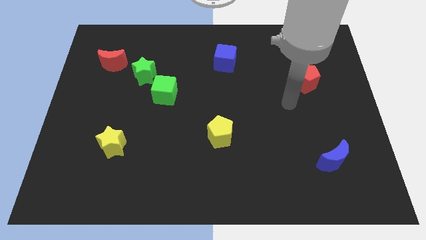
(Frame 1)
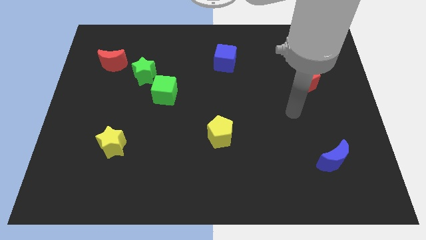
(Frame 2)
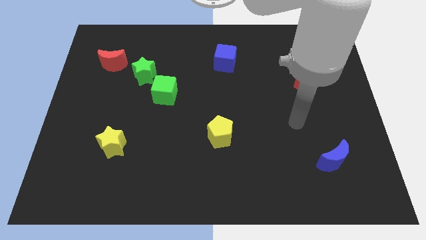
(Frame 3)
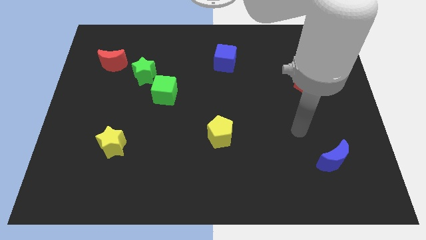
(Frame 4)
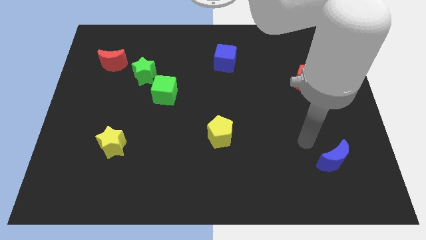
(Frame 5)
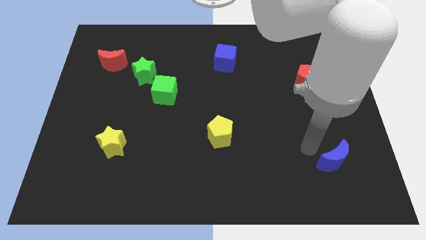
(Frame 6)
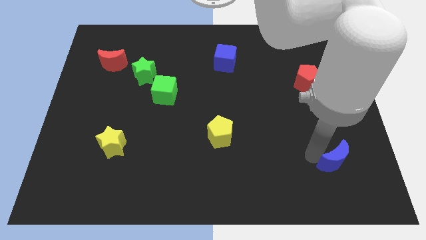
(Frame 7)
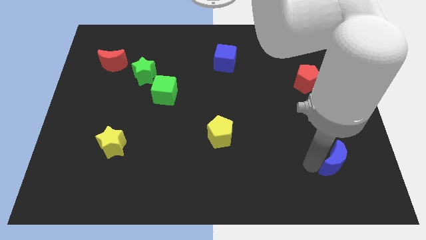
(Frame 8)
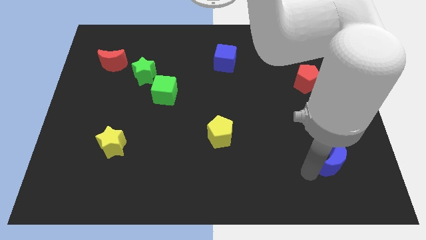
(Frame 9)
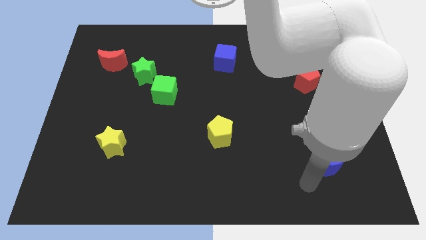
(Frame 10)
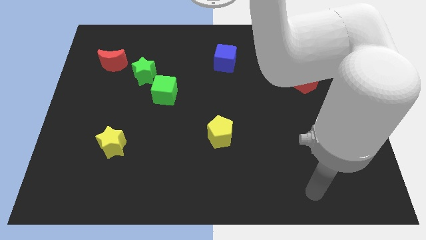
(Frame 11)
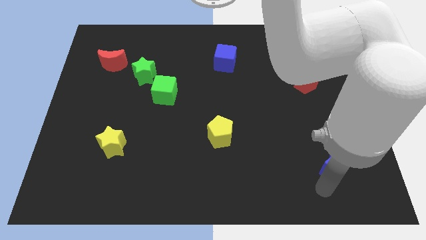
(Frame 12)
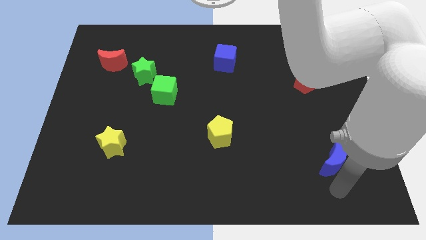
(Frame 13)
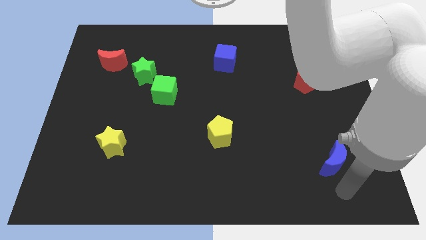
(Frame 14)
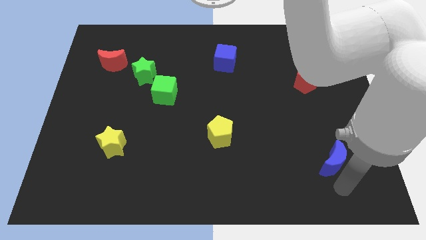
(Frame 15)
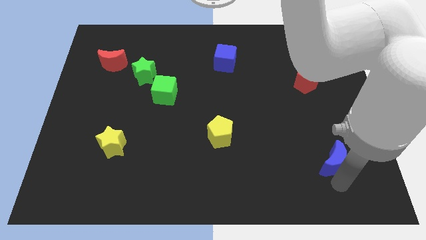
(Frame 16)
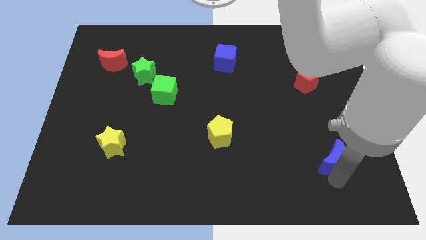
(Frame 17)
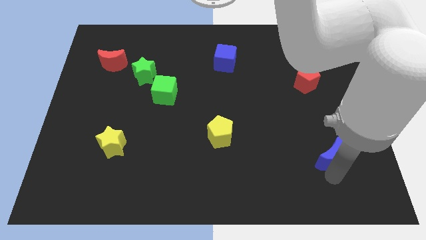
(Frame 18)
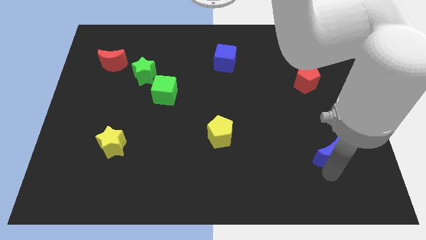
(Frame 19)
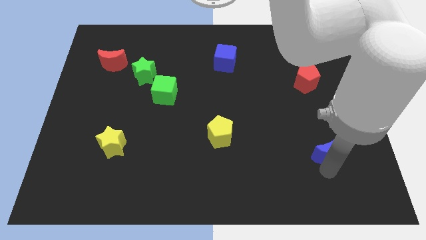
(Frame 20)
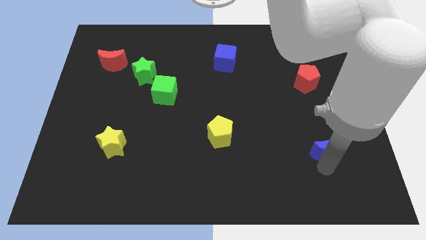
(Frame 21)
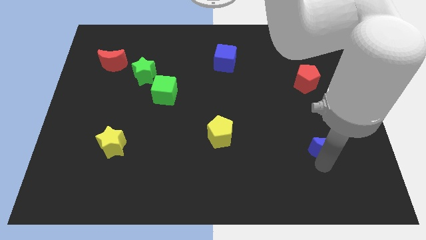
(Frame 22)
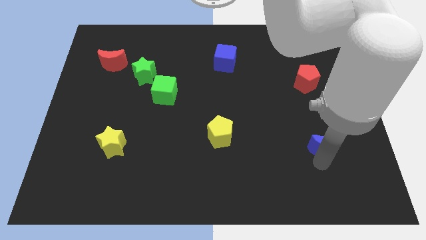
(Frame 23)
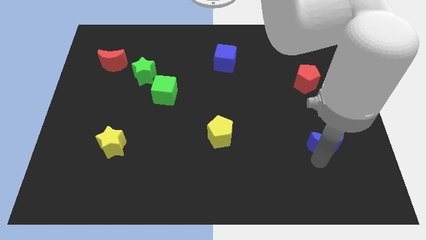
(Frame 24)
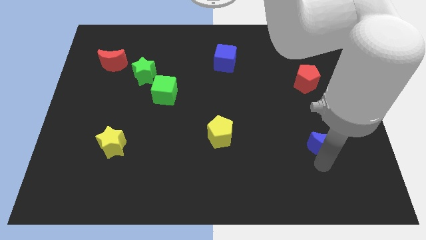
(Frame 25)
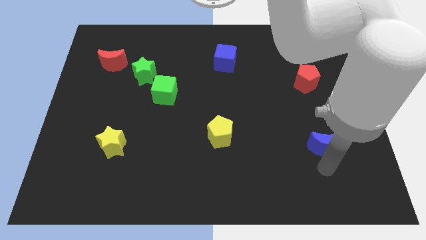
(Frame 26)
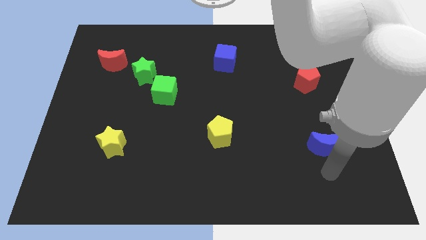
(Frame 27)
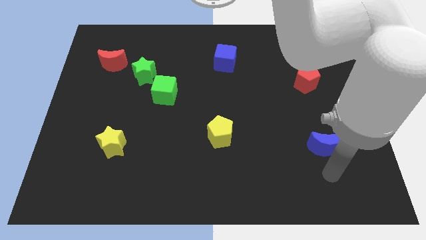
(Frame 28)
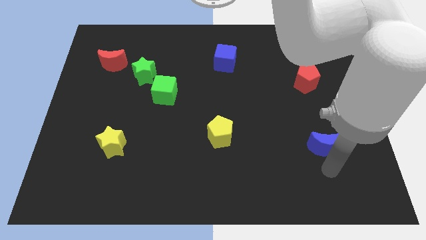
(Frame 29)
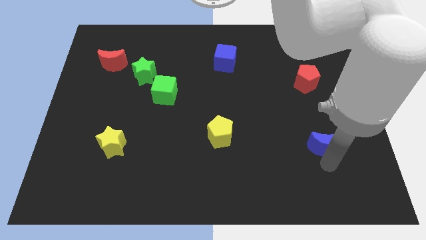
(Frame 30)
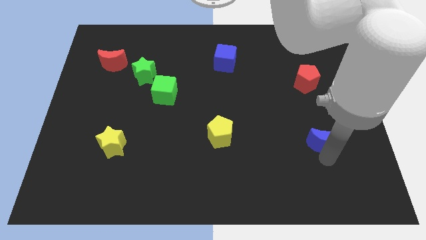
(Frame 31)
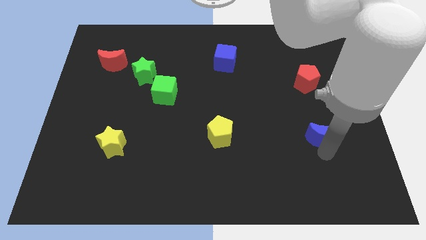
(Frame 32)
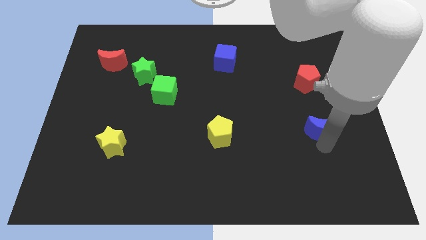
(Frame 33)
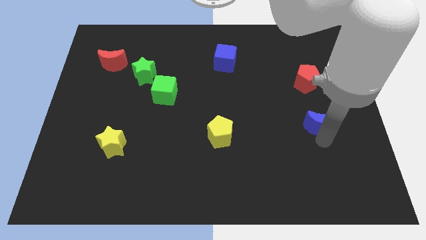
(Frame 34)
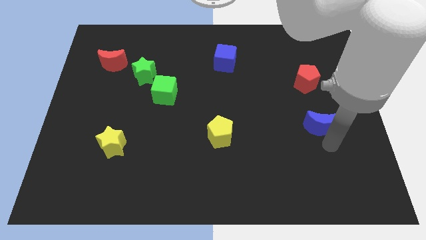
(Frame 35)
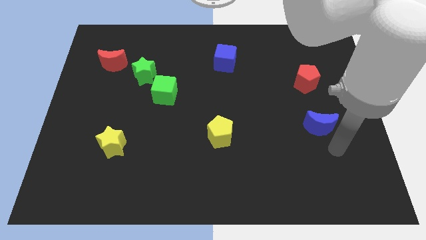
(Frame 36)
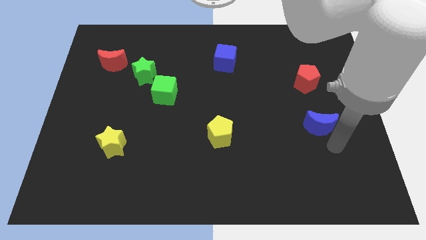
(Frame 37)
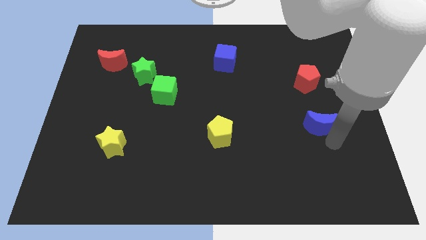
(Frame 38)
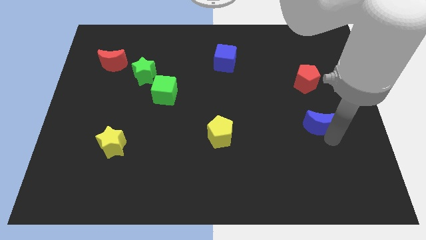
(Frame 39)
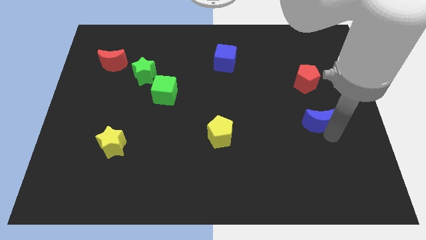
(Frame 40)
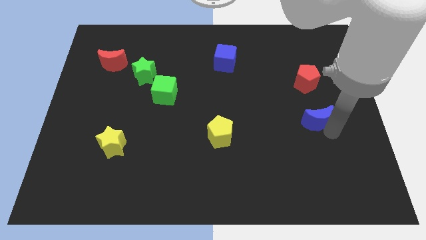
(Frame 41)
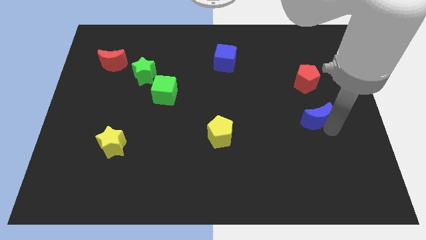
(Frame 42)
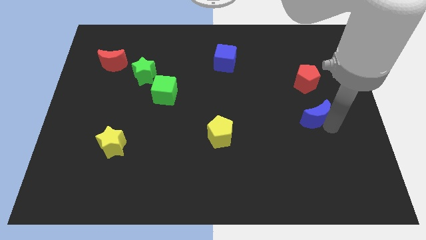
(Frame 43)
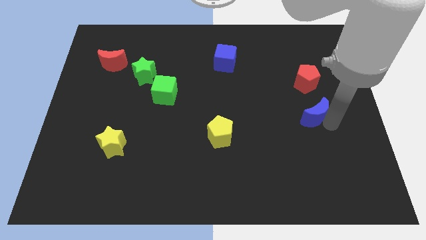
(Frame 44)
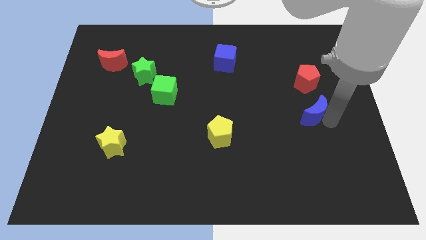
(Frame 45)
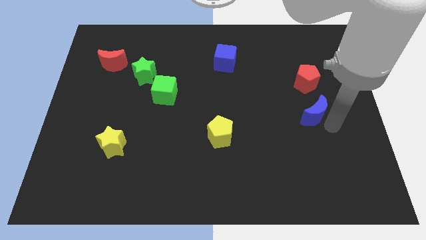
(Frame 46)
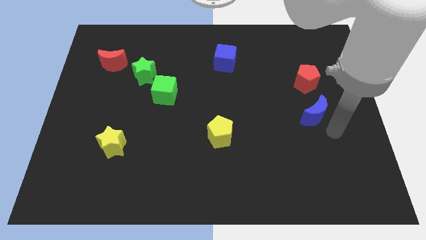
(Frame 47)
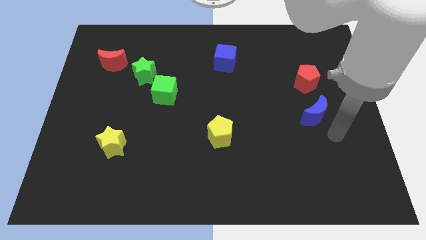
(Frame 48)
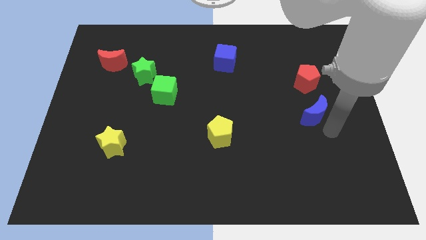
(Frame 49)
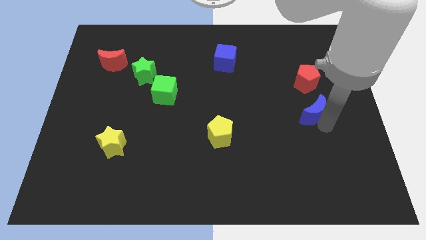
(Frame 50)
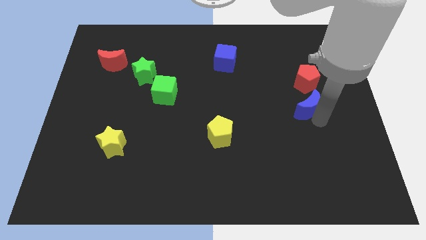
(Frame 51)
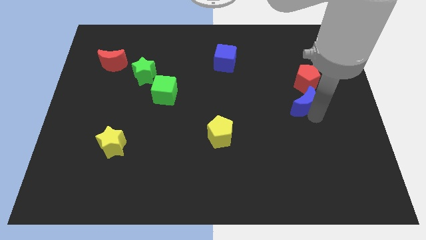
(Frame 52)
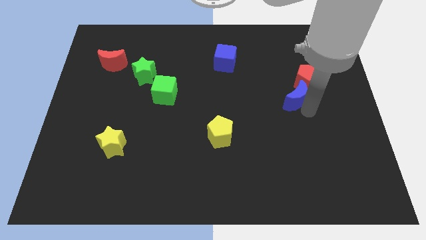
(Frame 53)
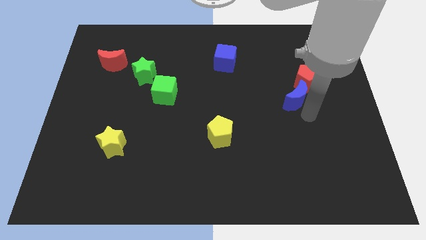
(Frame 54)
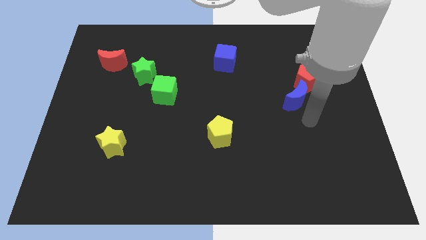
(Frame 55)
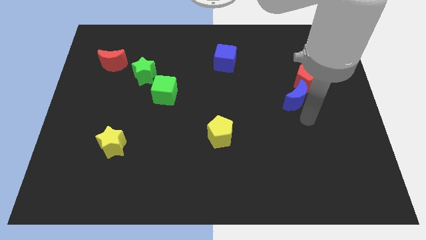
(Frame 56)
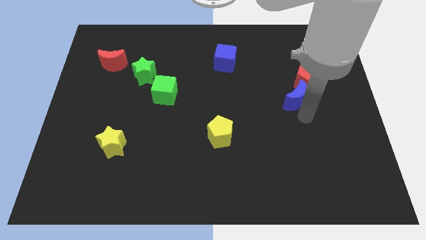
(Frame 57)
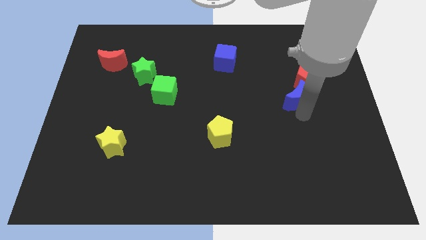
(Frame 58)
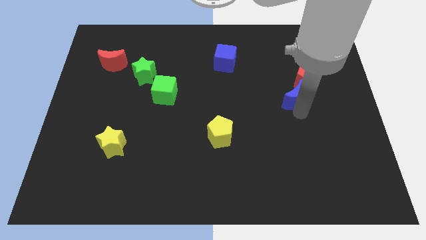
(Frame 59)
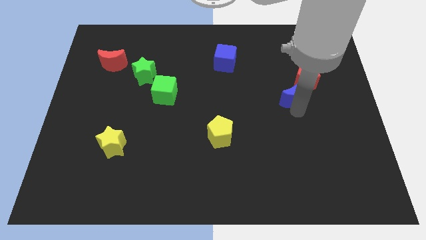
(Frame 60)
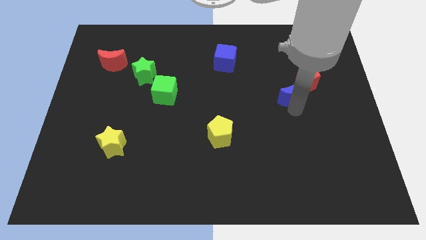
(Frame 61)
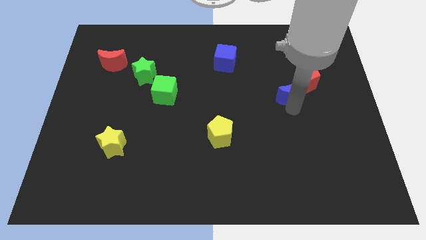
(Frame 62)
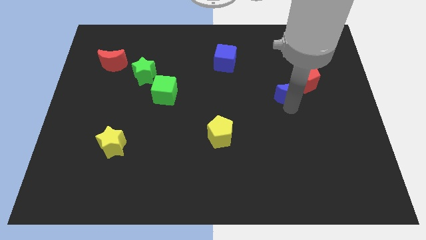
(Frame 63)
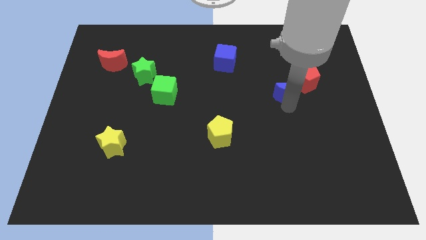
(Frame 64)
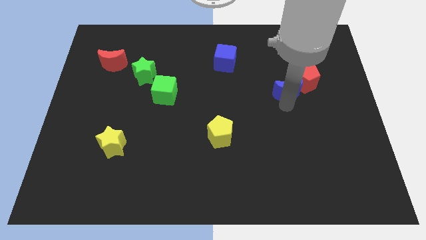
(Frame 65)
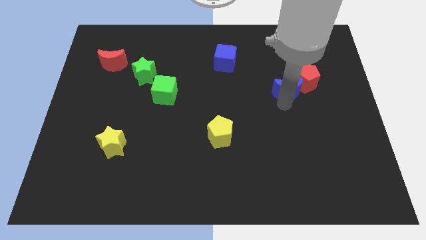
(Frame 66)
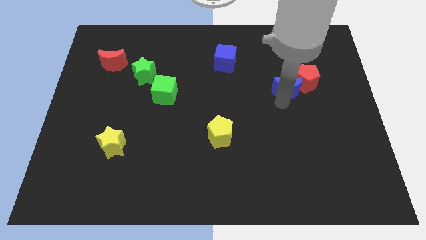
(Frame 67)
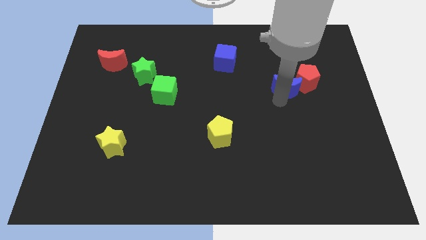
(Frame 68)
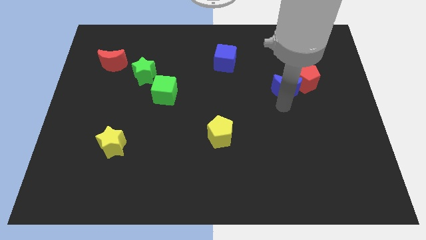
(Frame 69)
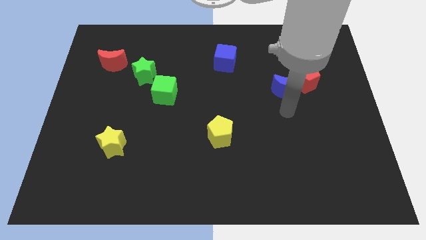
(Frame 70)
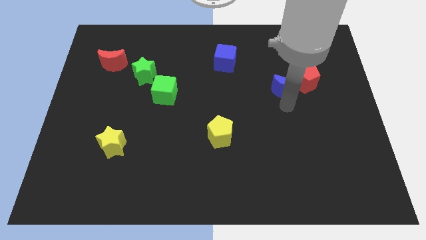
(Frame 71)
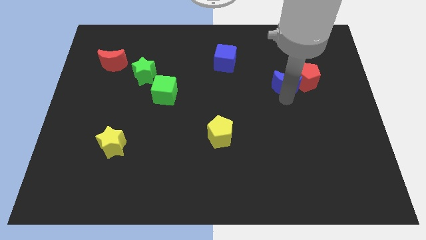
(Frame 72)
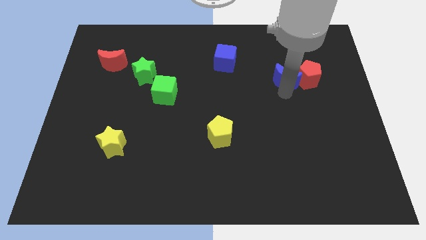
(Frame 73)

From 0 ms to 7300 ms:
put the blue moon diagonally up and to the left of the red pentagon
